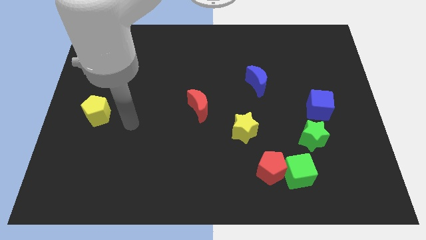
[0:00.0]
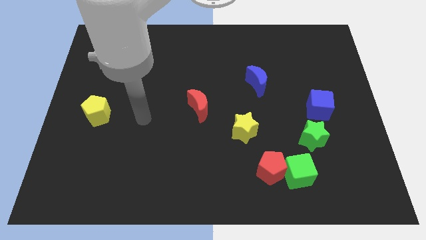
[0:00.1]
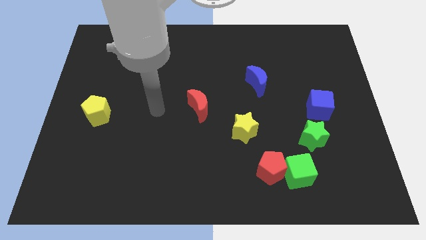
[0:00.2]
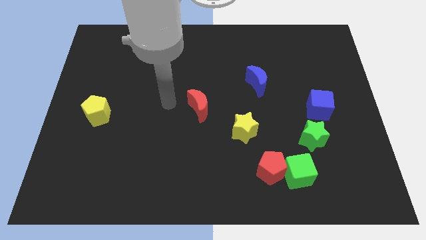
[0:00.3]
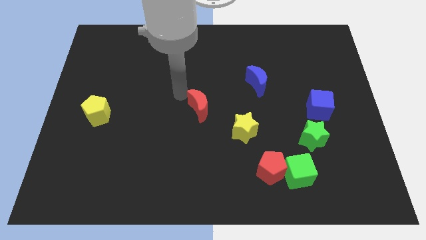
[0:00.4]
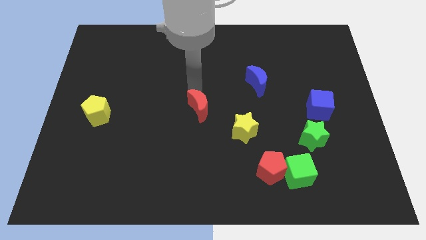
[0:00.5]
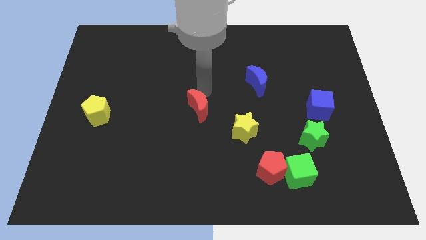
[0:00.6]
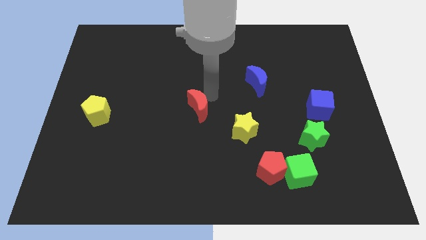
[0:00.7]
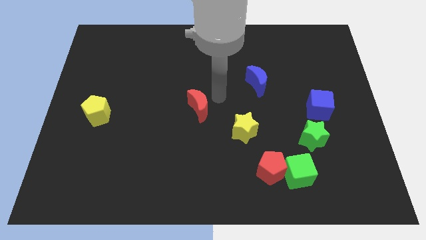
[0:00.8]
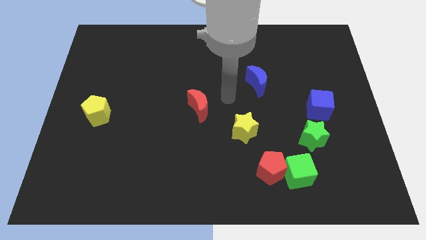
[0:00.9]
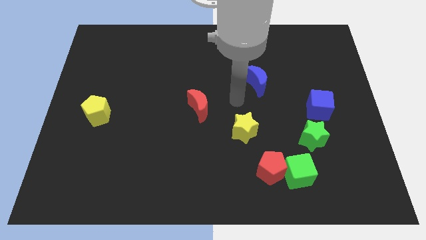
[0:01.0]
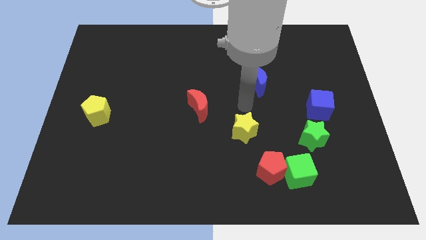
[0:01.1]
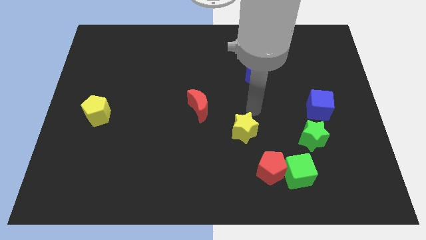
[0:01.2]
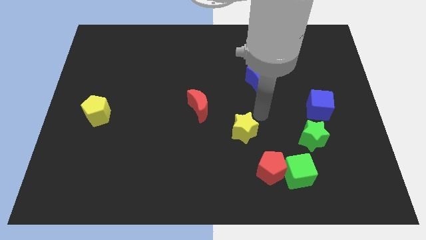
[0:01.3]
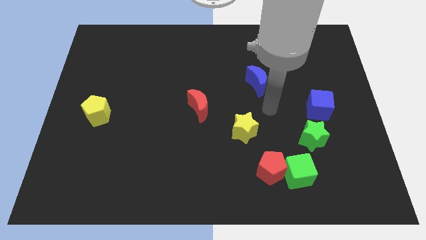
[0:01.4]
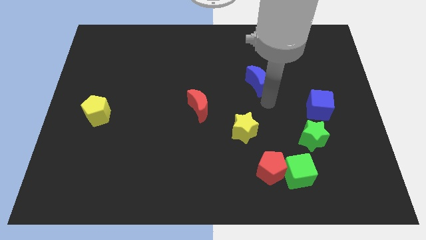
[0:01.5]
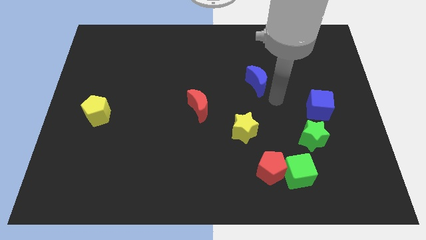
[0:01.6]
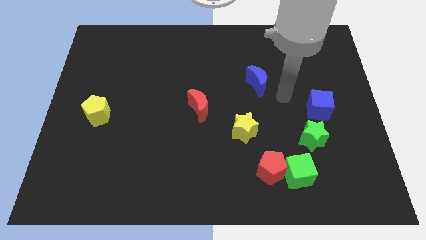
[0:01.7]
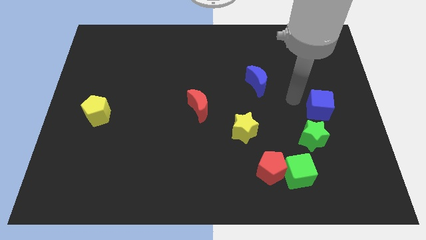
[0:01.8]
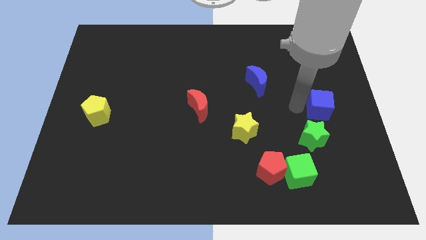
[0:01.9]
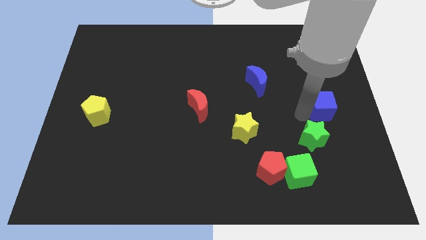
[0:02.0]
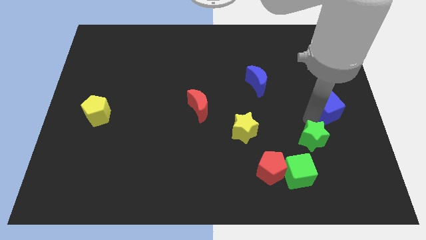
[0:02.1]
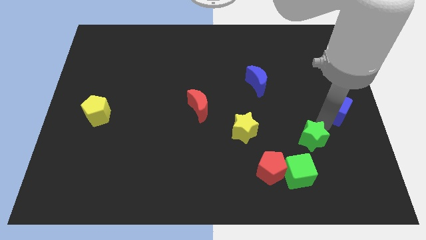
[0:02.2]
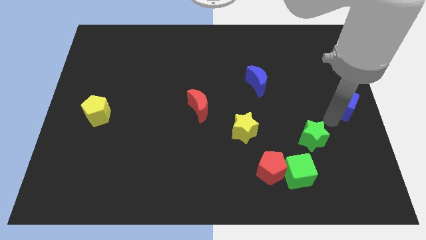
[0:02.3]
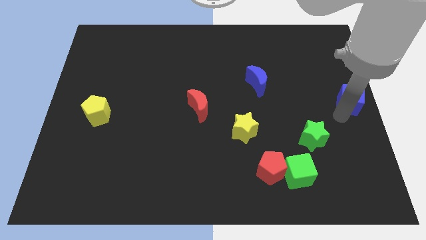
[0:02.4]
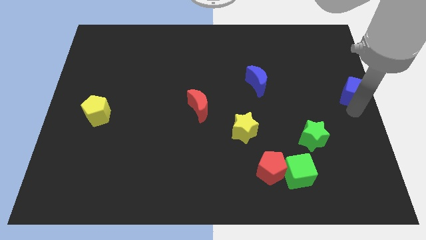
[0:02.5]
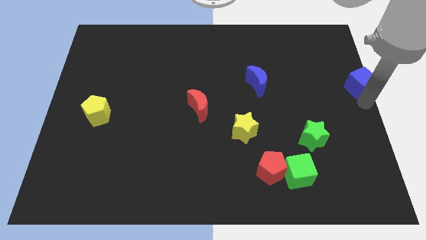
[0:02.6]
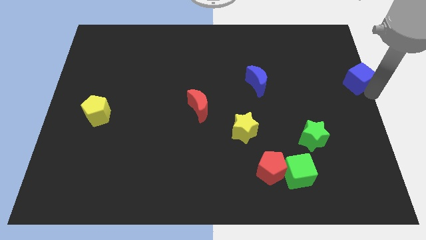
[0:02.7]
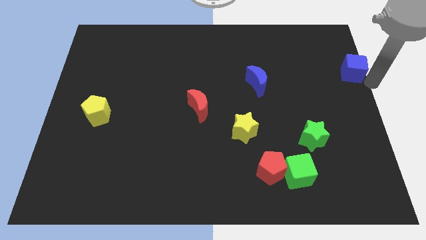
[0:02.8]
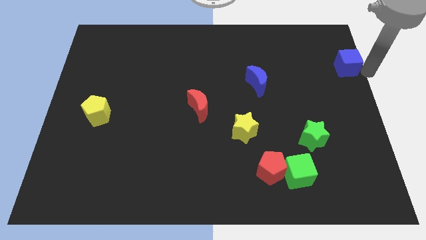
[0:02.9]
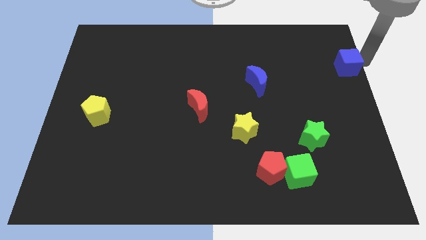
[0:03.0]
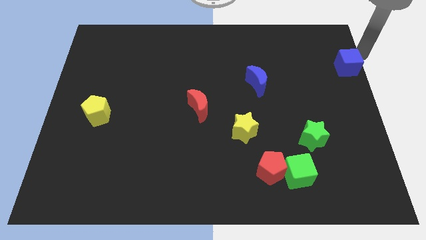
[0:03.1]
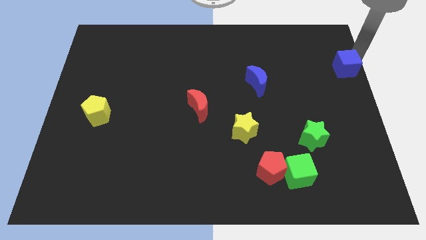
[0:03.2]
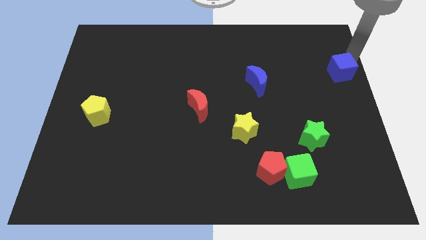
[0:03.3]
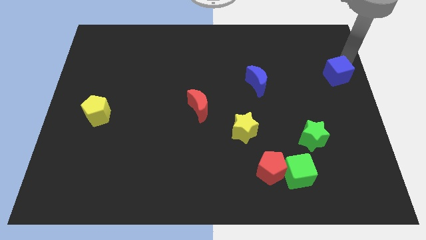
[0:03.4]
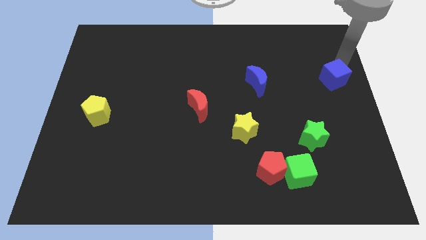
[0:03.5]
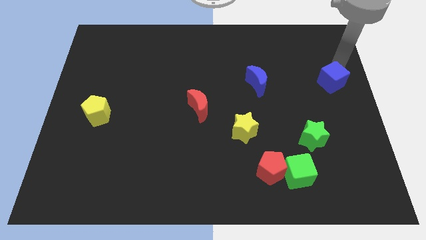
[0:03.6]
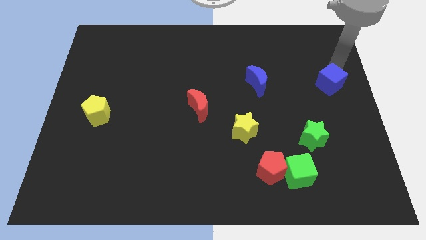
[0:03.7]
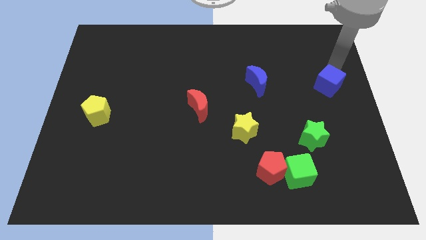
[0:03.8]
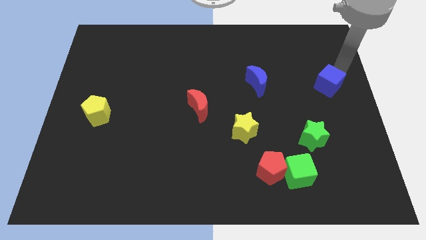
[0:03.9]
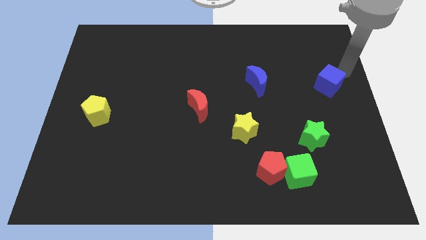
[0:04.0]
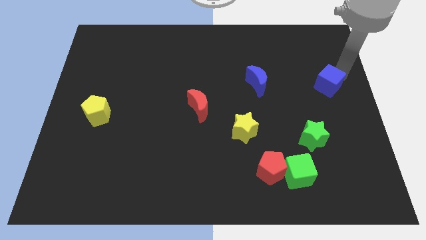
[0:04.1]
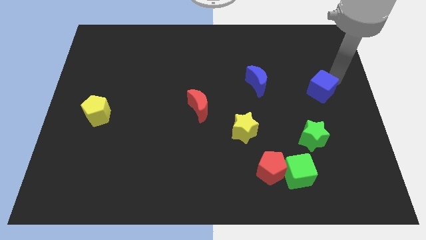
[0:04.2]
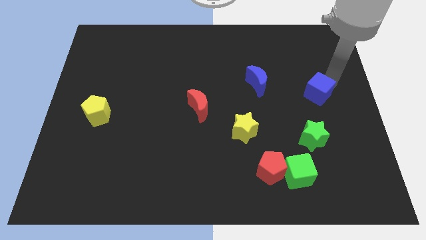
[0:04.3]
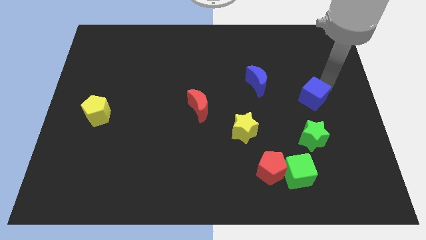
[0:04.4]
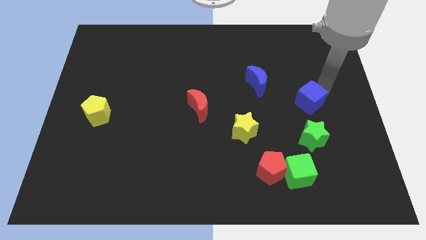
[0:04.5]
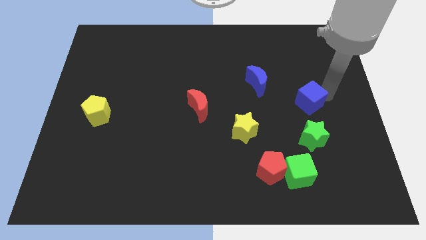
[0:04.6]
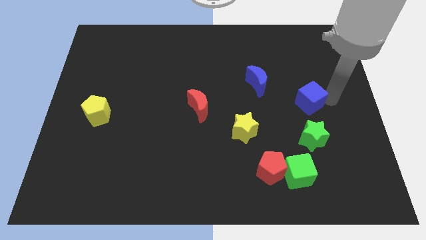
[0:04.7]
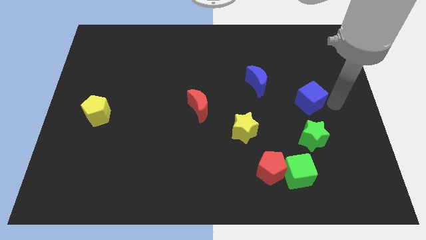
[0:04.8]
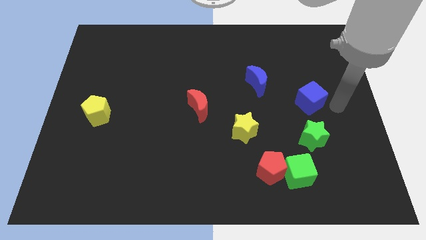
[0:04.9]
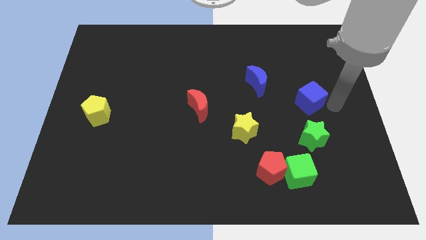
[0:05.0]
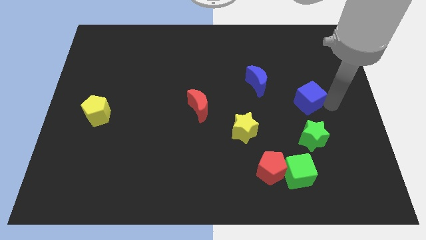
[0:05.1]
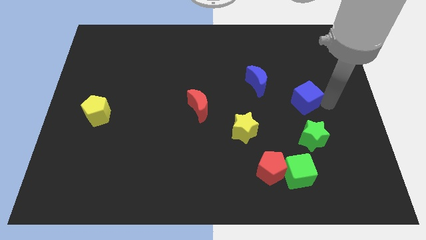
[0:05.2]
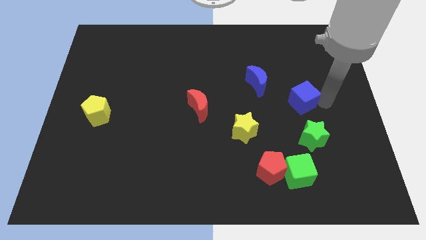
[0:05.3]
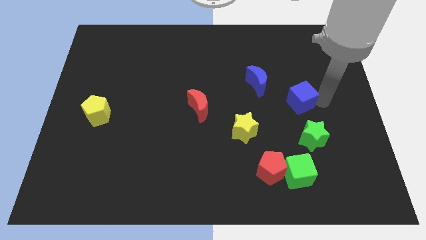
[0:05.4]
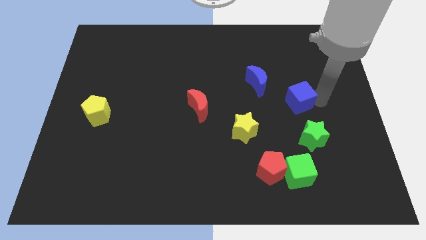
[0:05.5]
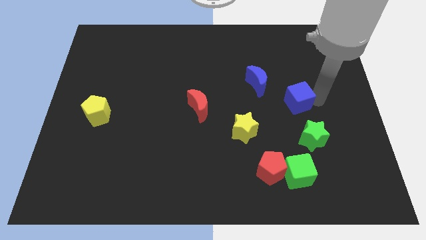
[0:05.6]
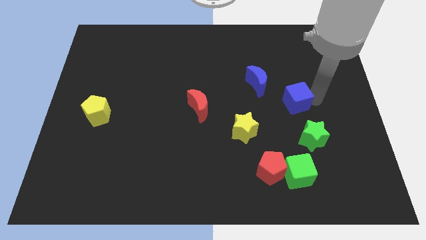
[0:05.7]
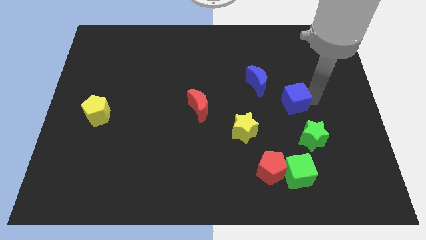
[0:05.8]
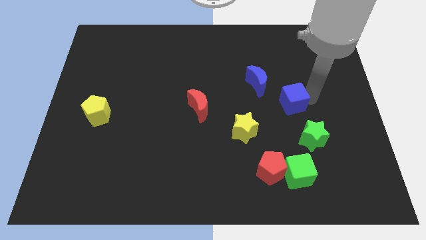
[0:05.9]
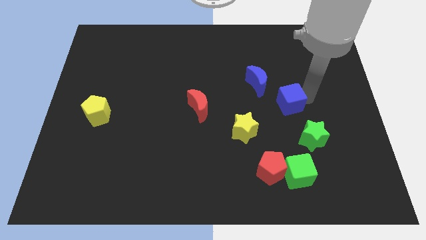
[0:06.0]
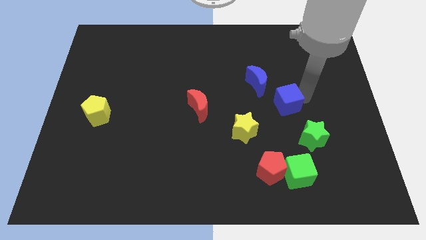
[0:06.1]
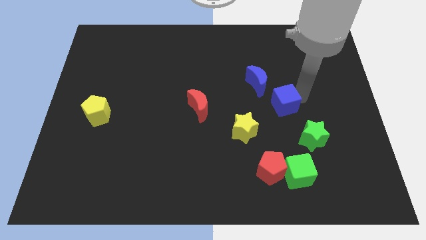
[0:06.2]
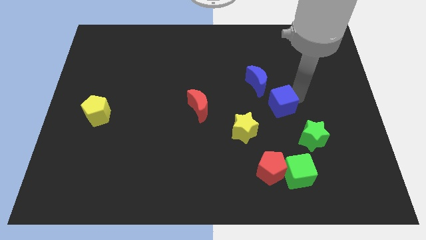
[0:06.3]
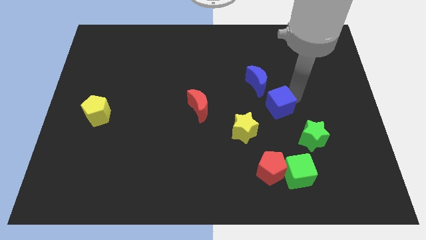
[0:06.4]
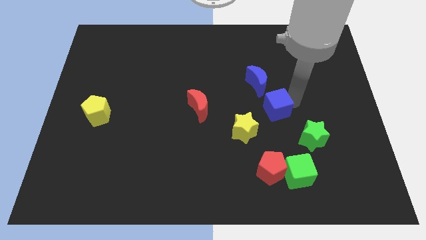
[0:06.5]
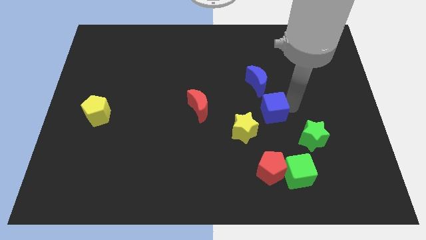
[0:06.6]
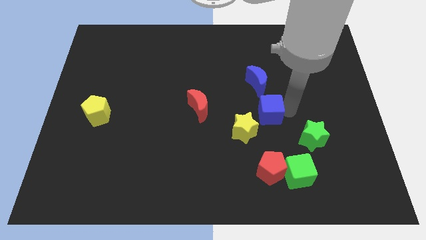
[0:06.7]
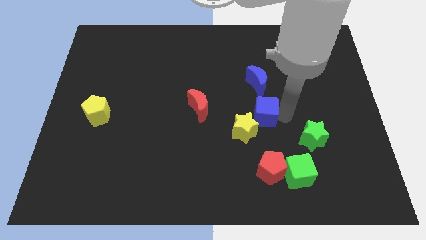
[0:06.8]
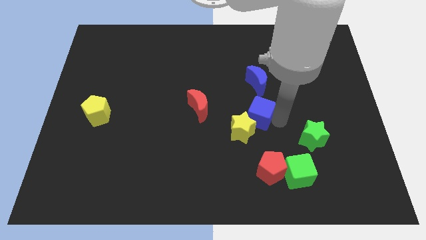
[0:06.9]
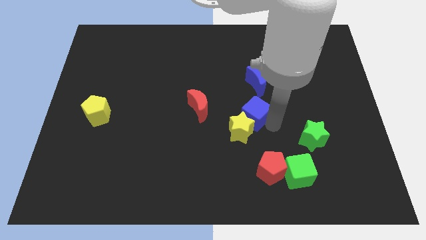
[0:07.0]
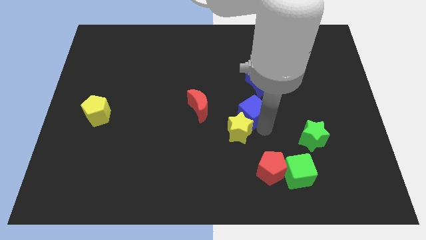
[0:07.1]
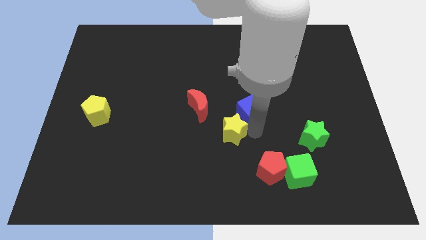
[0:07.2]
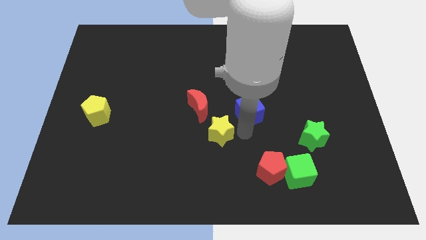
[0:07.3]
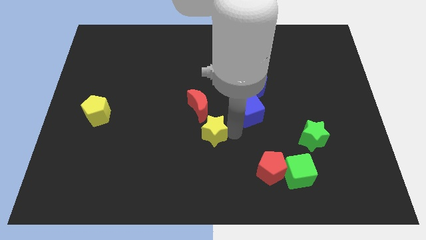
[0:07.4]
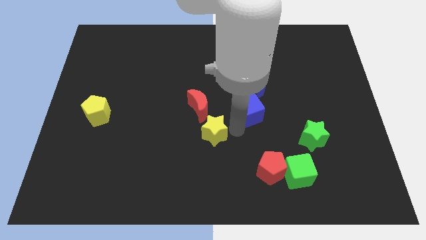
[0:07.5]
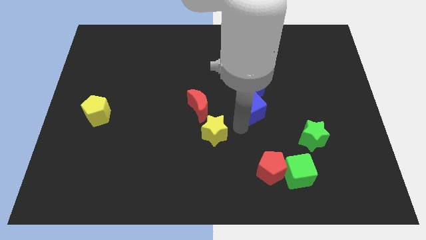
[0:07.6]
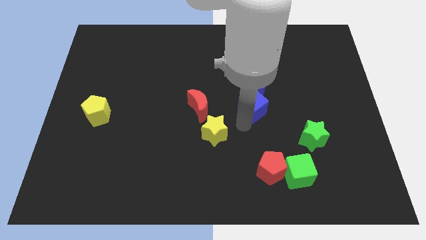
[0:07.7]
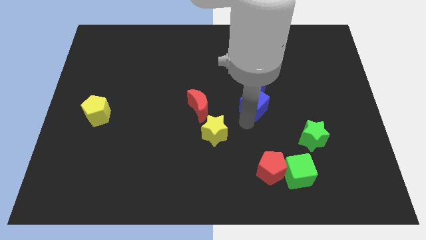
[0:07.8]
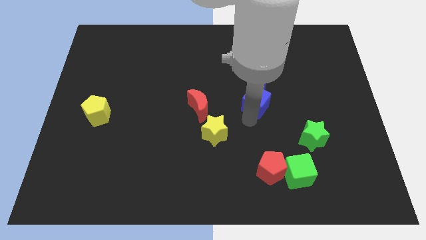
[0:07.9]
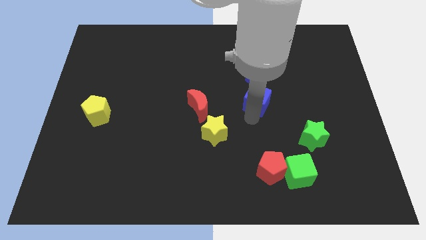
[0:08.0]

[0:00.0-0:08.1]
move the blue cube to the blue moon
